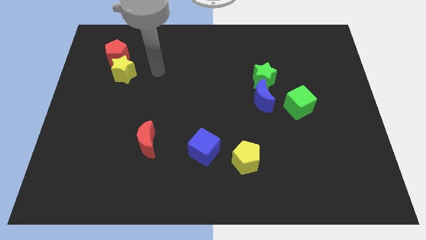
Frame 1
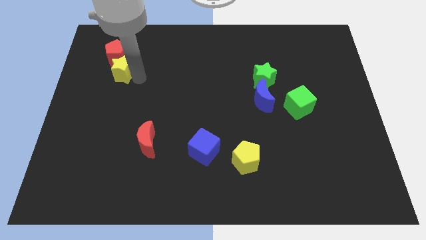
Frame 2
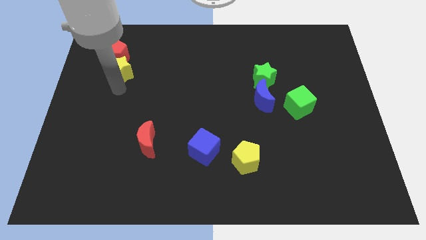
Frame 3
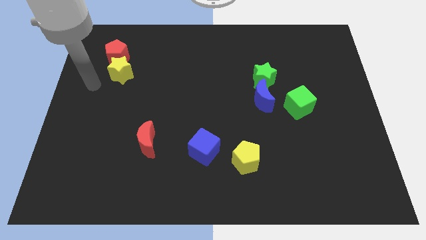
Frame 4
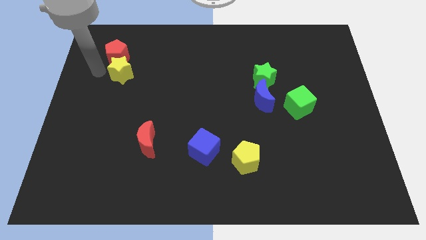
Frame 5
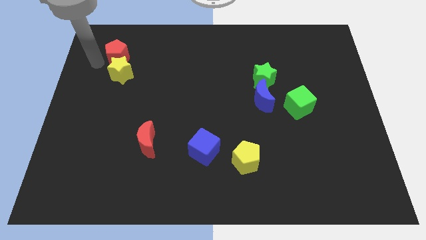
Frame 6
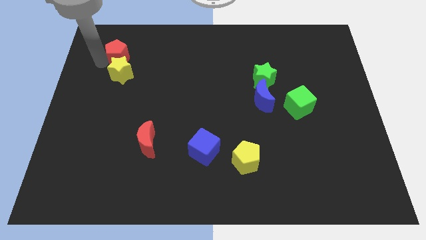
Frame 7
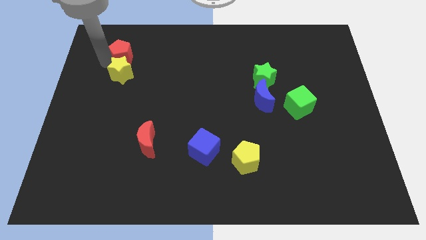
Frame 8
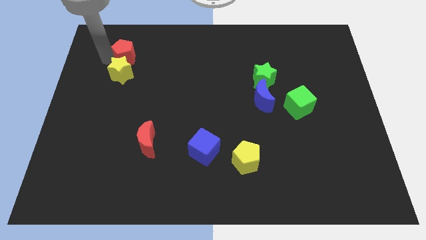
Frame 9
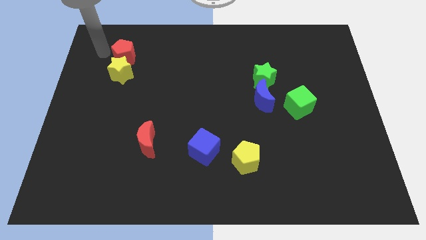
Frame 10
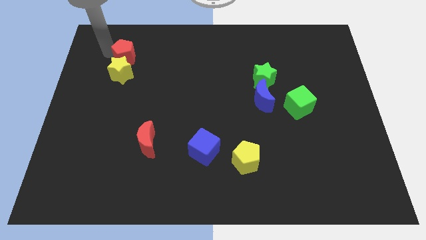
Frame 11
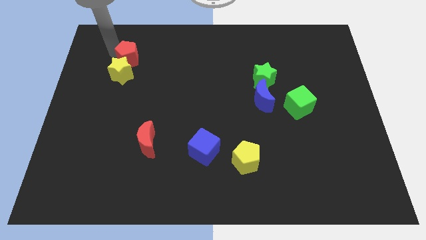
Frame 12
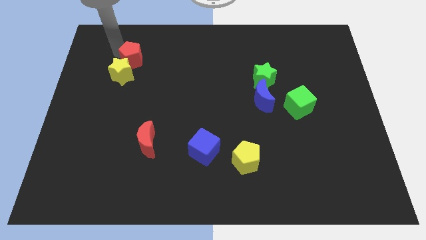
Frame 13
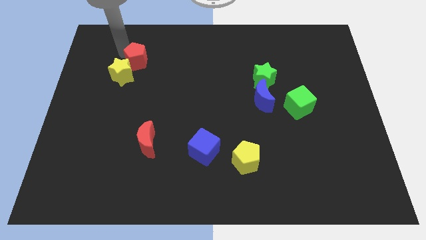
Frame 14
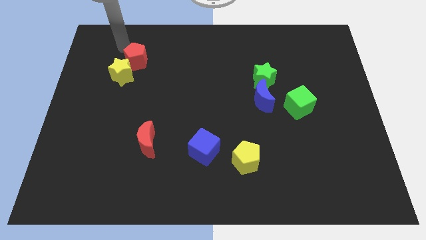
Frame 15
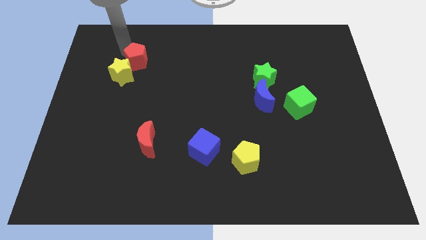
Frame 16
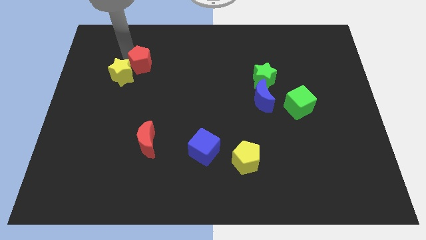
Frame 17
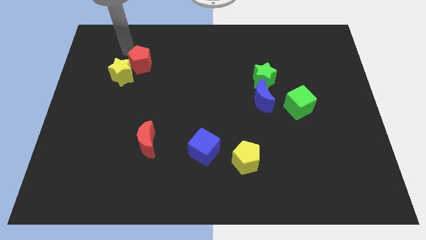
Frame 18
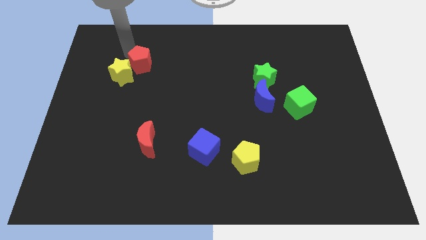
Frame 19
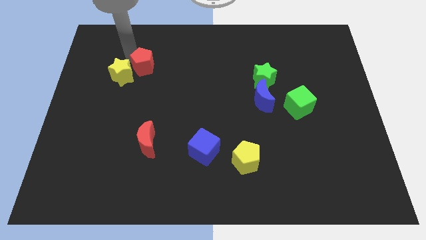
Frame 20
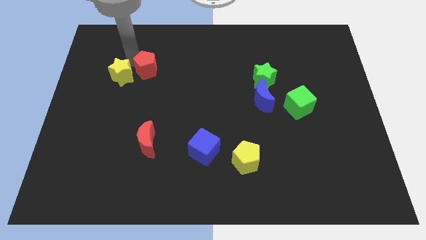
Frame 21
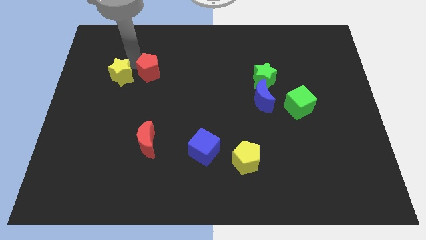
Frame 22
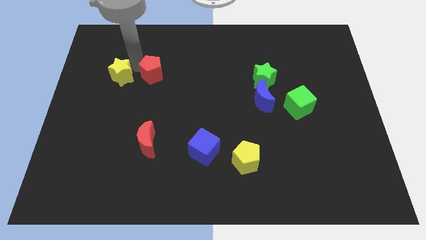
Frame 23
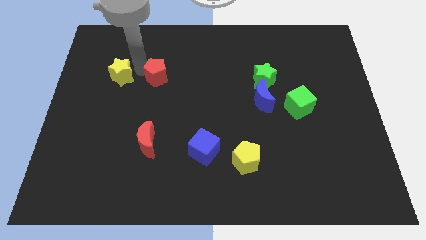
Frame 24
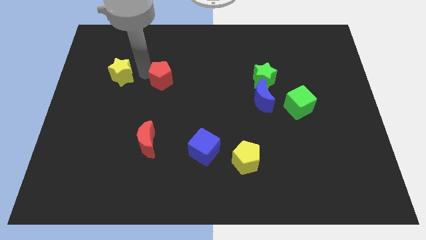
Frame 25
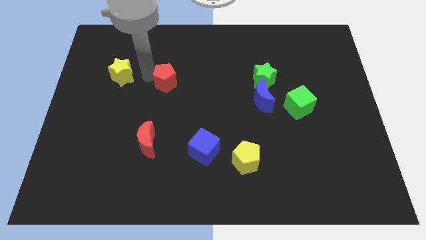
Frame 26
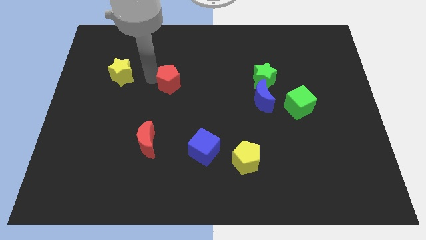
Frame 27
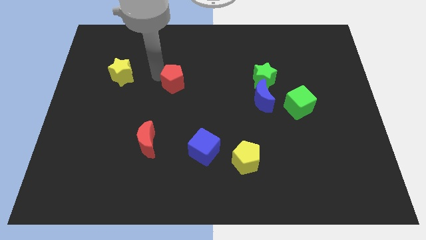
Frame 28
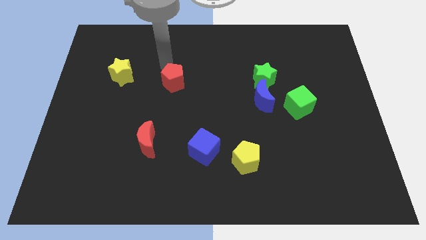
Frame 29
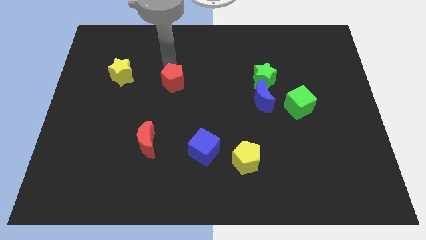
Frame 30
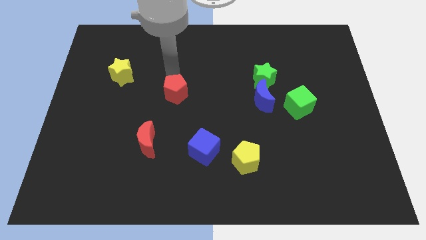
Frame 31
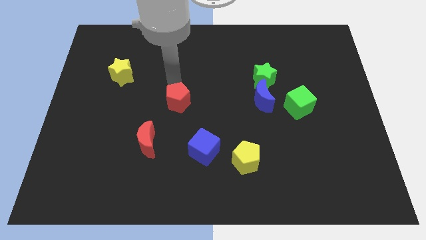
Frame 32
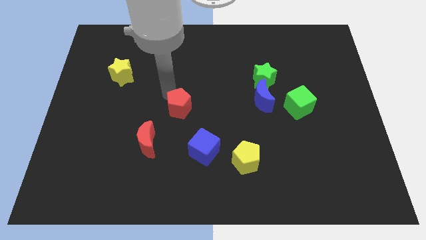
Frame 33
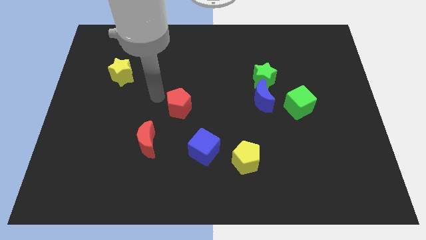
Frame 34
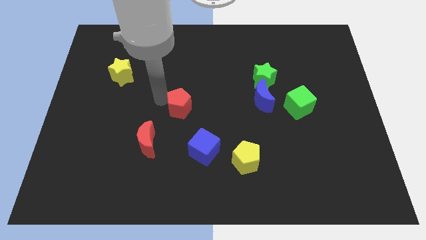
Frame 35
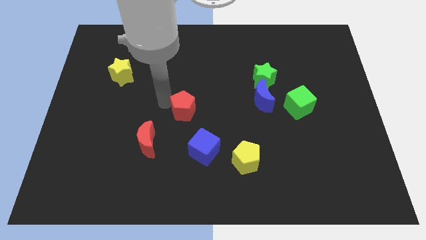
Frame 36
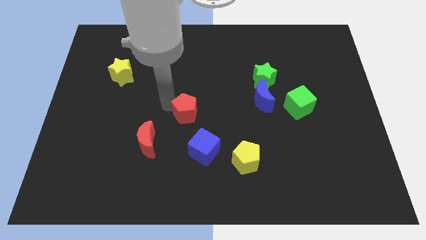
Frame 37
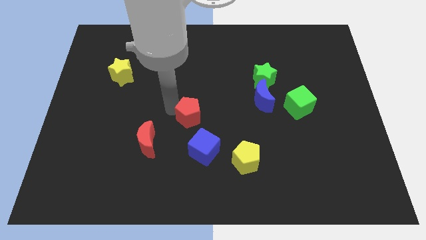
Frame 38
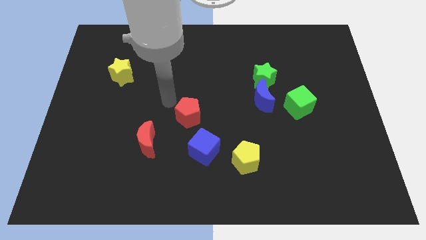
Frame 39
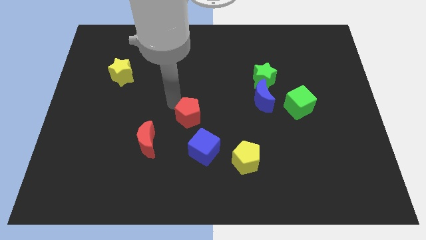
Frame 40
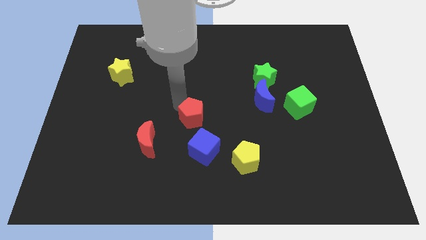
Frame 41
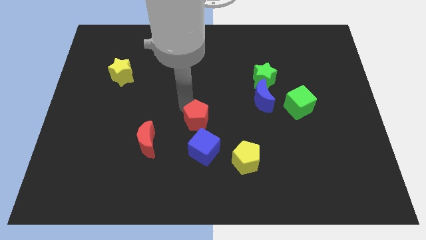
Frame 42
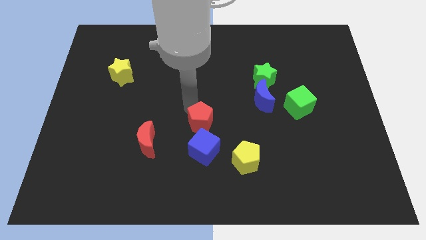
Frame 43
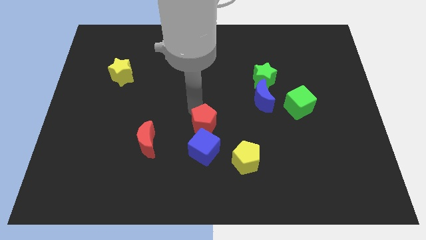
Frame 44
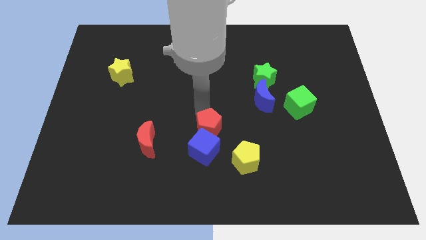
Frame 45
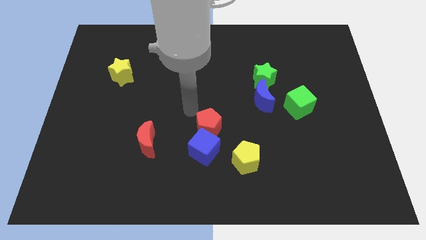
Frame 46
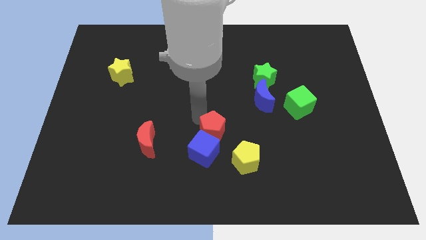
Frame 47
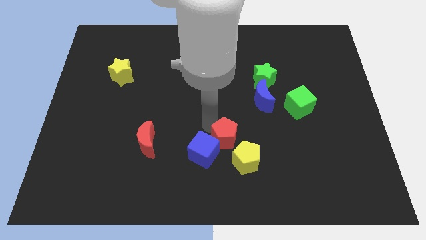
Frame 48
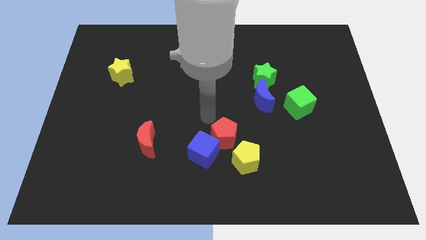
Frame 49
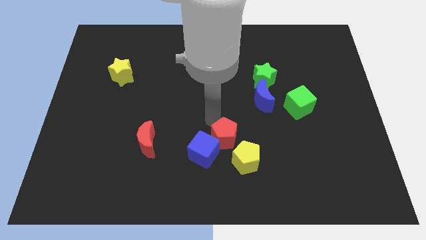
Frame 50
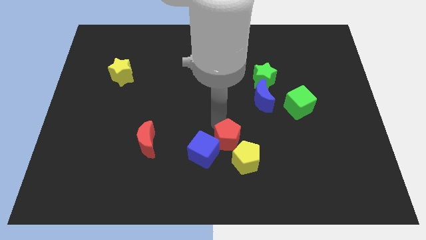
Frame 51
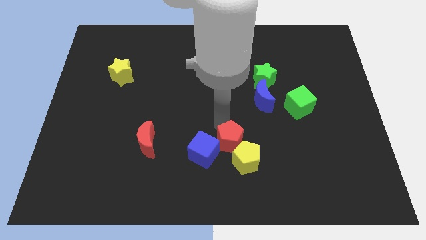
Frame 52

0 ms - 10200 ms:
move the red pentagon to the yellow pentagon

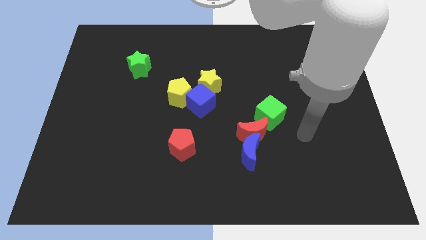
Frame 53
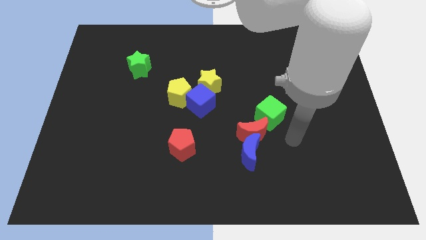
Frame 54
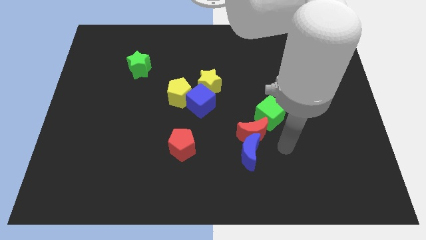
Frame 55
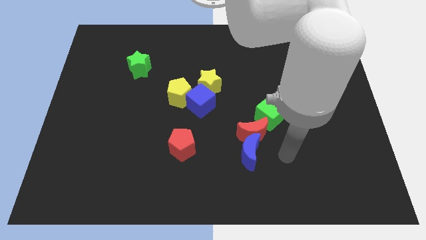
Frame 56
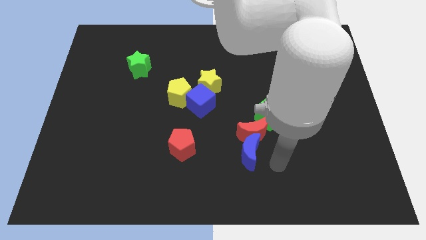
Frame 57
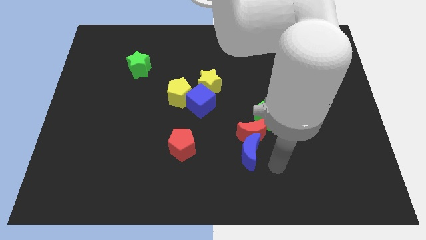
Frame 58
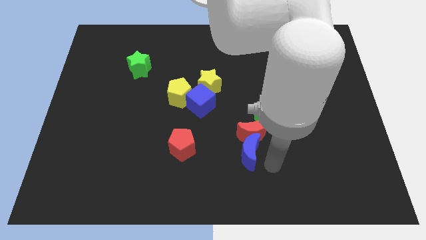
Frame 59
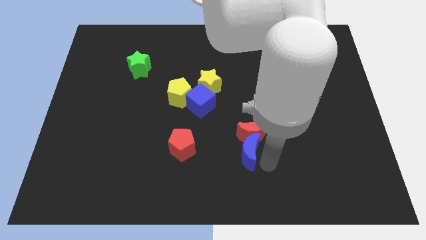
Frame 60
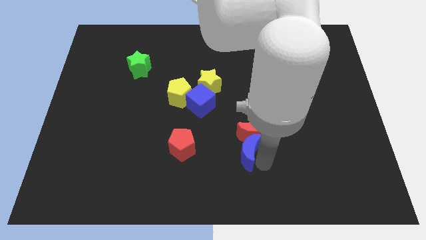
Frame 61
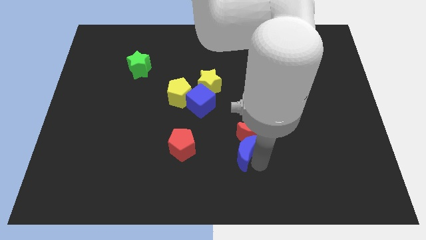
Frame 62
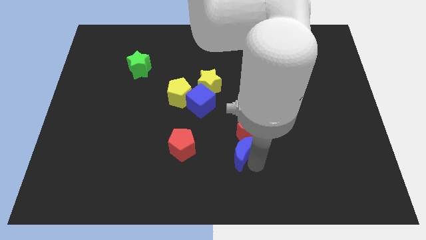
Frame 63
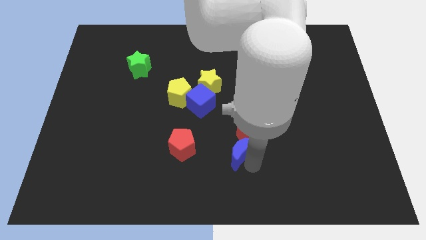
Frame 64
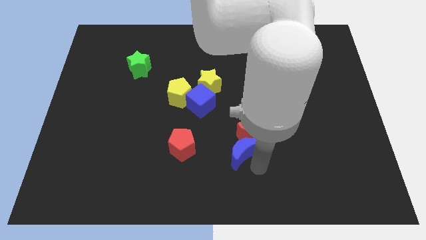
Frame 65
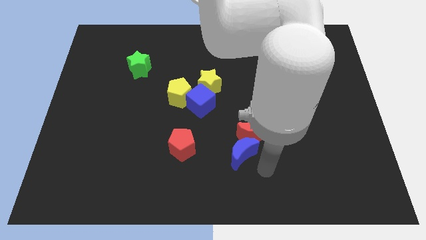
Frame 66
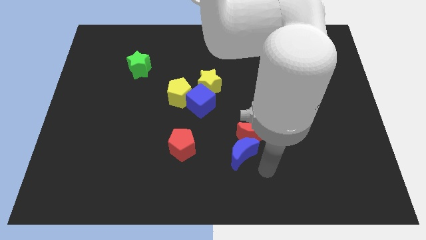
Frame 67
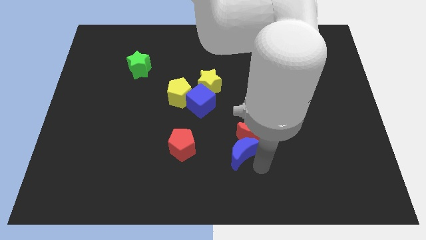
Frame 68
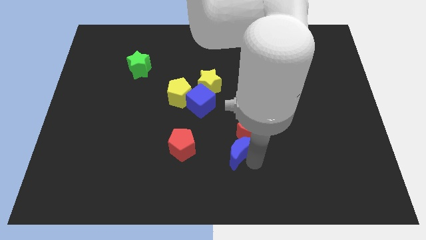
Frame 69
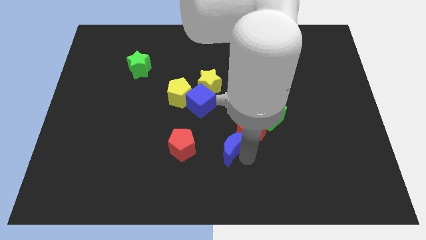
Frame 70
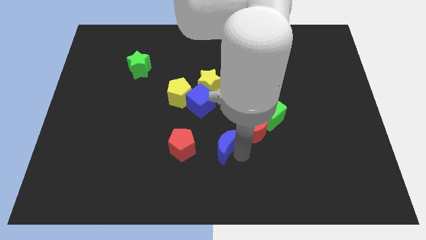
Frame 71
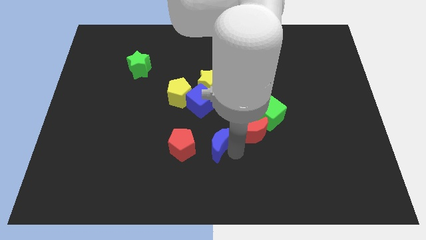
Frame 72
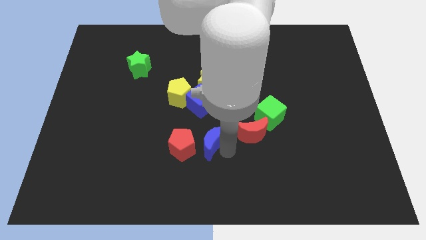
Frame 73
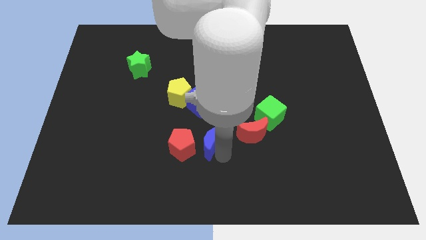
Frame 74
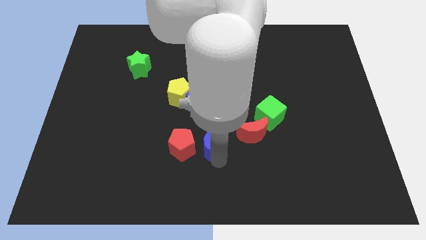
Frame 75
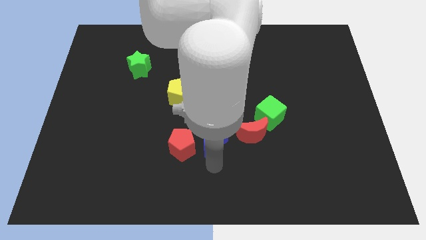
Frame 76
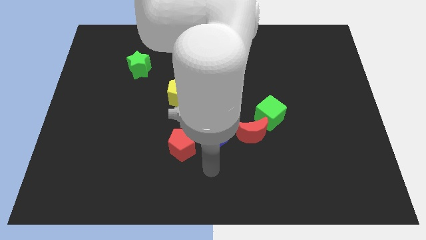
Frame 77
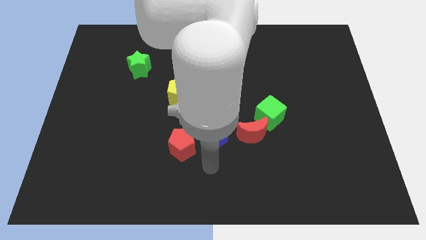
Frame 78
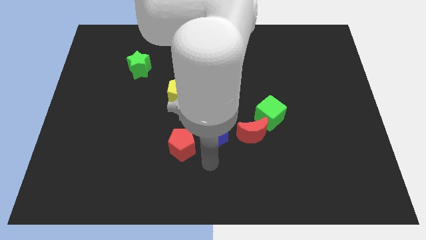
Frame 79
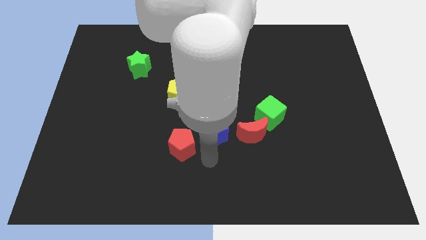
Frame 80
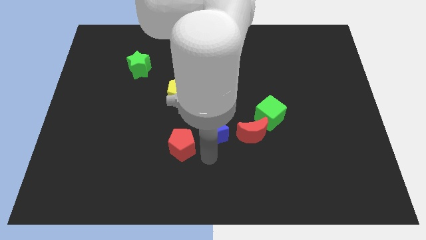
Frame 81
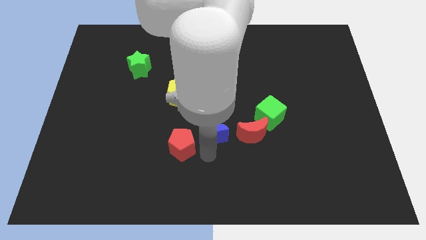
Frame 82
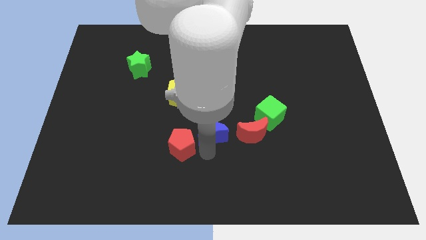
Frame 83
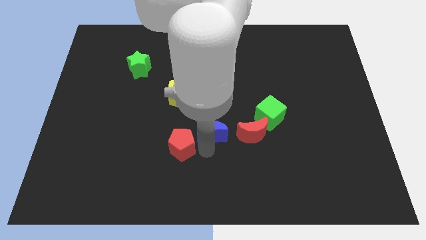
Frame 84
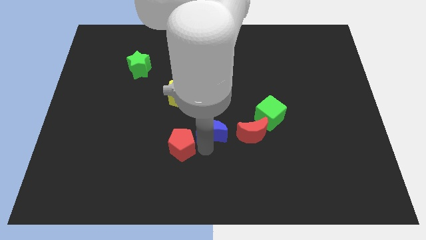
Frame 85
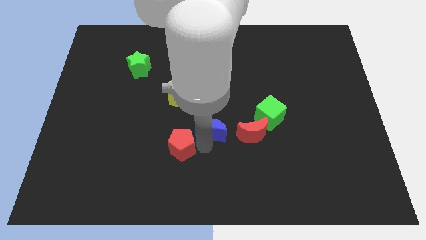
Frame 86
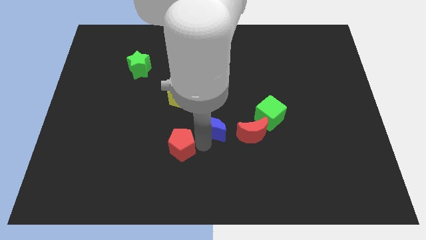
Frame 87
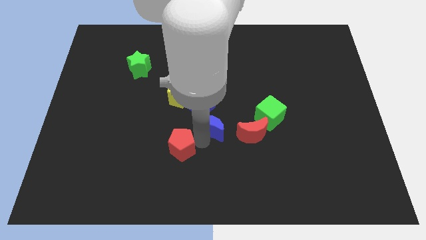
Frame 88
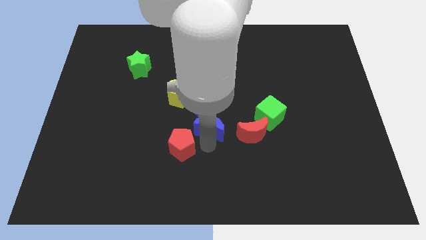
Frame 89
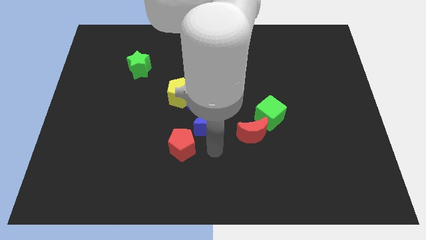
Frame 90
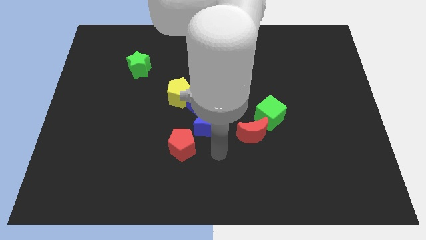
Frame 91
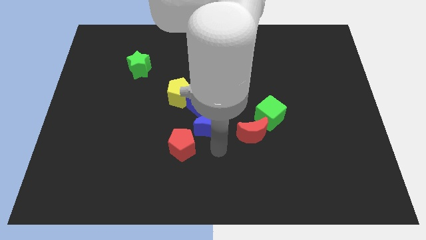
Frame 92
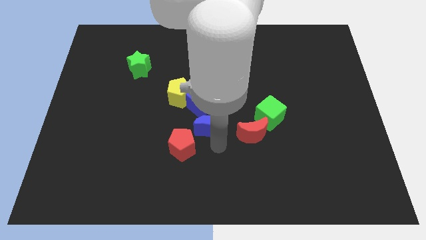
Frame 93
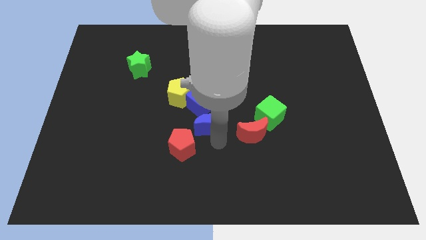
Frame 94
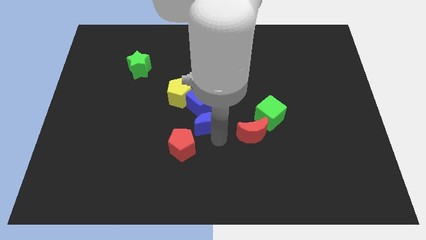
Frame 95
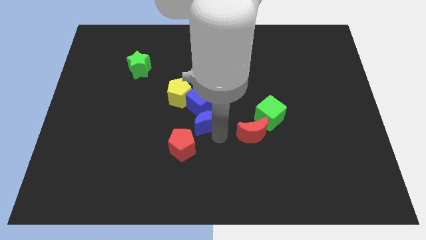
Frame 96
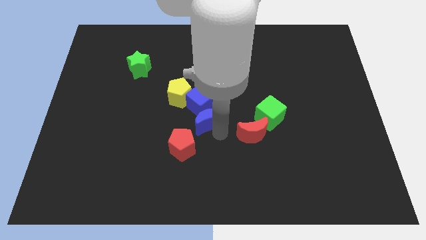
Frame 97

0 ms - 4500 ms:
slide the blue moon to the blue cube
